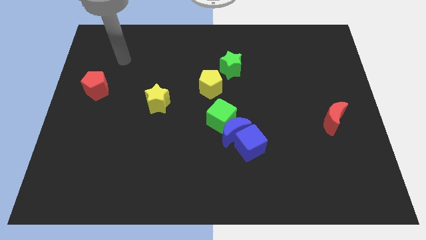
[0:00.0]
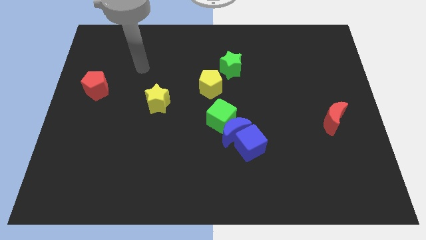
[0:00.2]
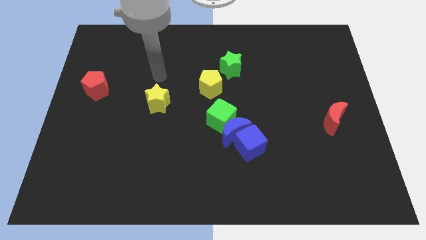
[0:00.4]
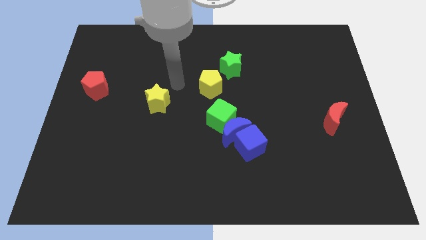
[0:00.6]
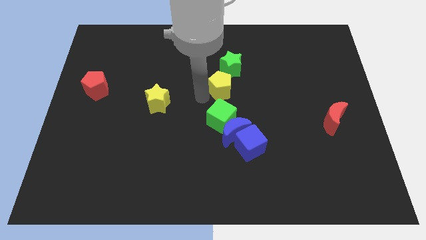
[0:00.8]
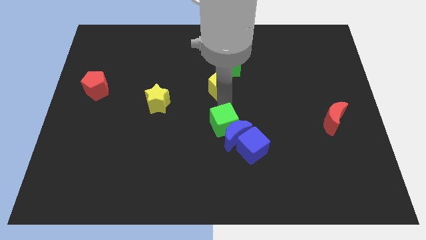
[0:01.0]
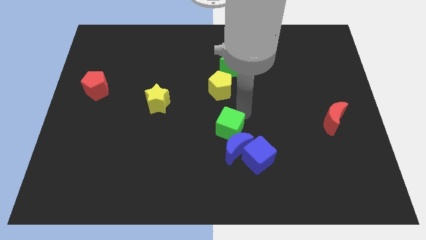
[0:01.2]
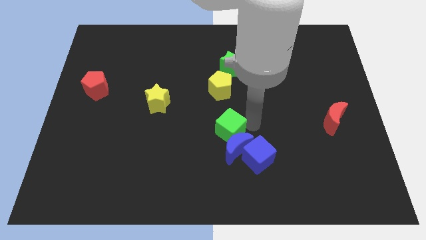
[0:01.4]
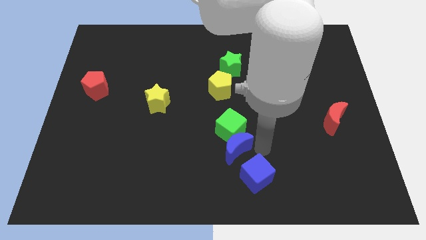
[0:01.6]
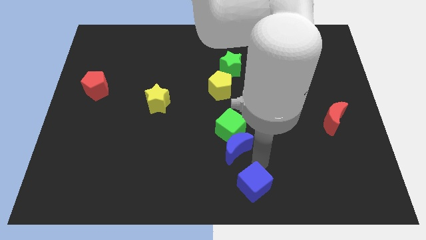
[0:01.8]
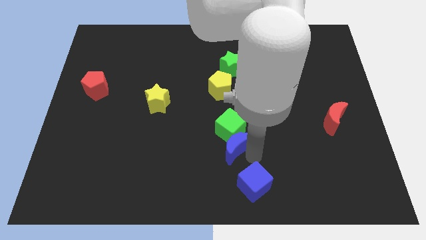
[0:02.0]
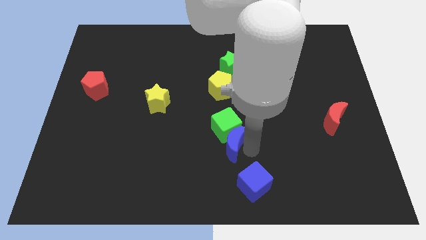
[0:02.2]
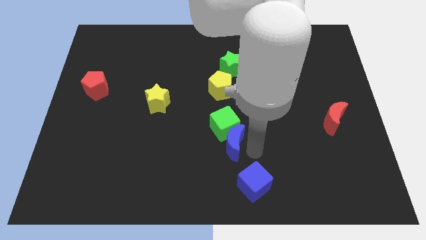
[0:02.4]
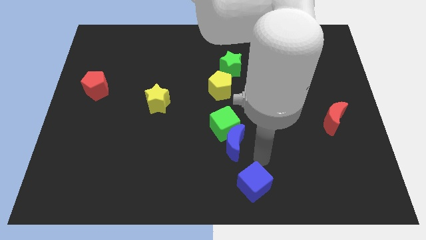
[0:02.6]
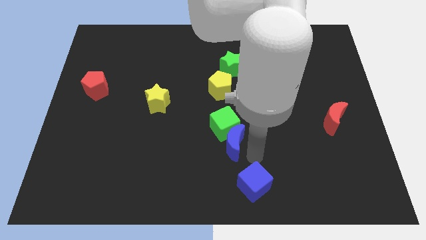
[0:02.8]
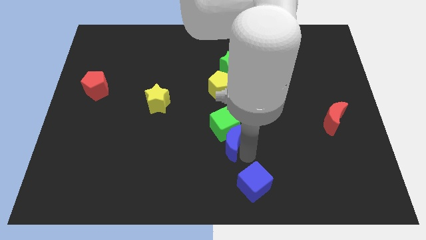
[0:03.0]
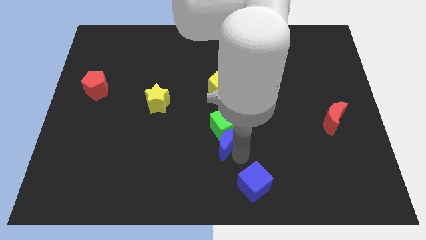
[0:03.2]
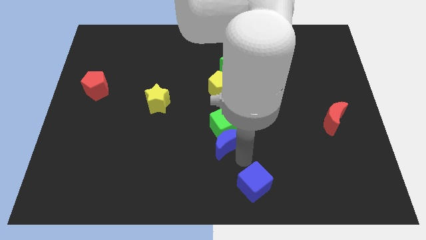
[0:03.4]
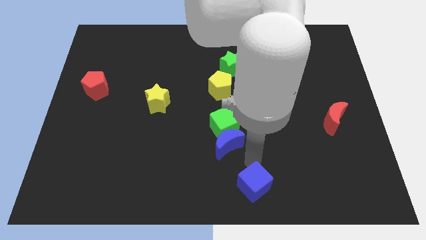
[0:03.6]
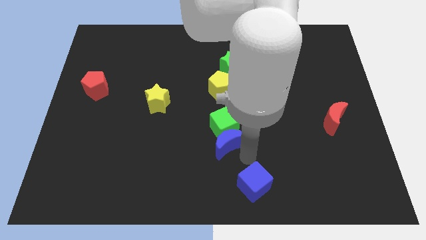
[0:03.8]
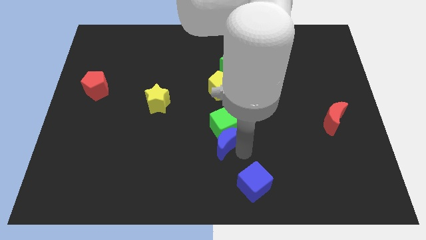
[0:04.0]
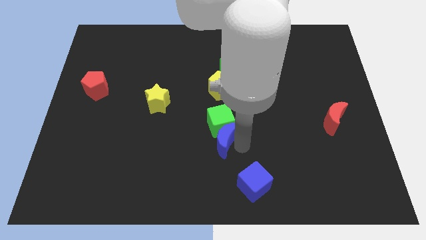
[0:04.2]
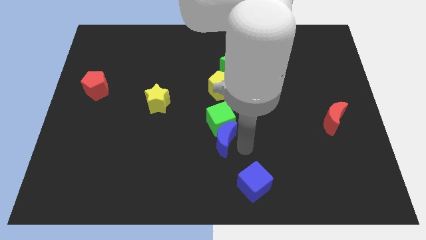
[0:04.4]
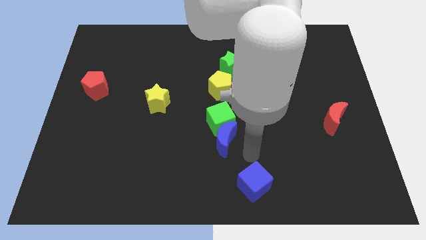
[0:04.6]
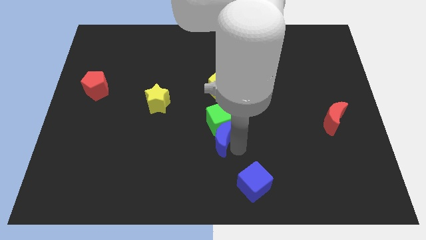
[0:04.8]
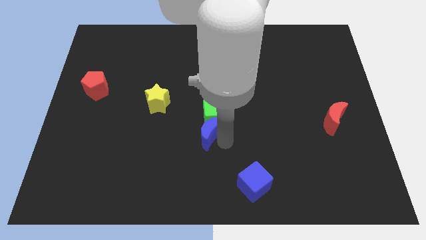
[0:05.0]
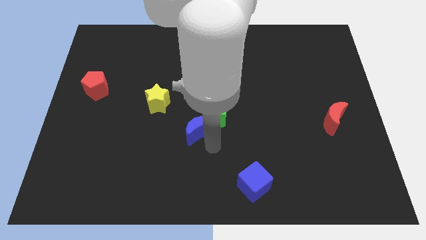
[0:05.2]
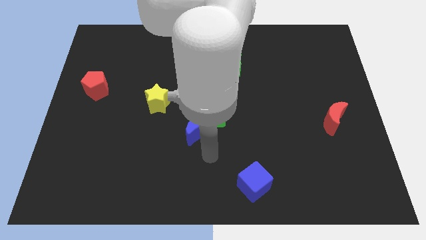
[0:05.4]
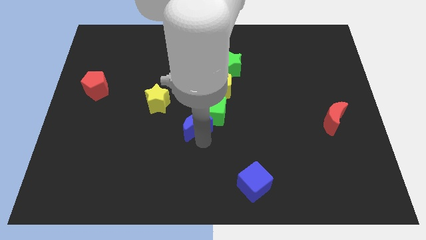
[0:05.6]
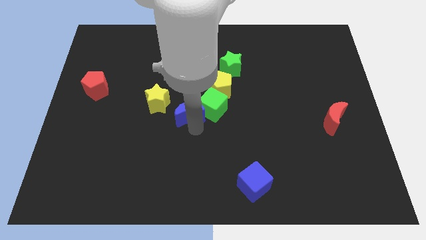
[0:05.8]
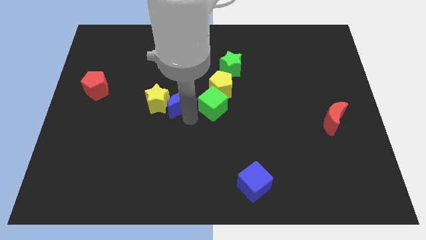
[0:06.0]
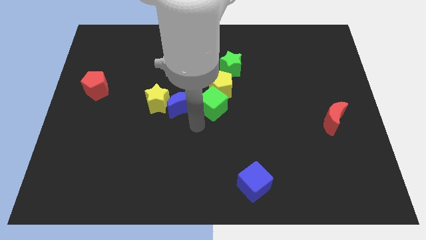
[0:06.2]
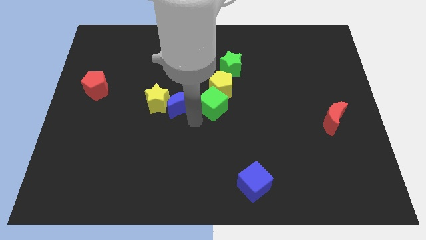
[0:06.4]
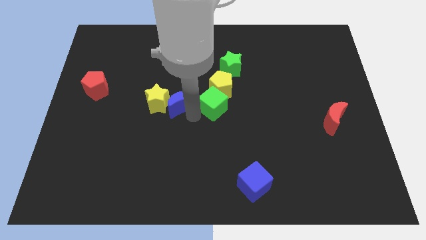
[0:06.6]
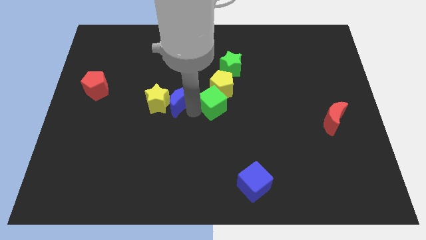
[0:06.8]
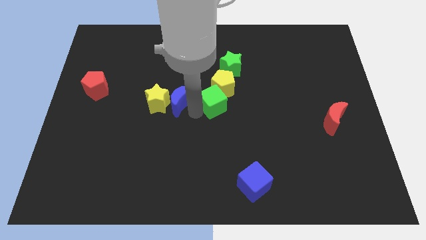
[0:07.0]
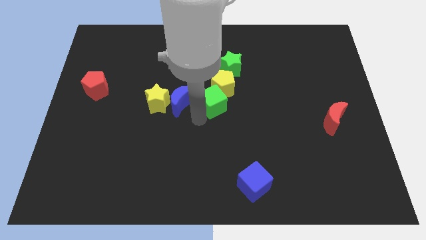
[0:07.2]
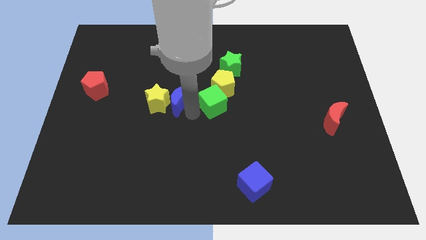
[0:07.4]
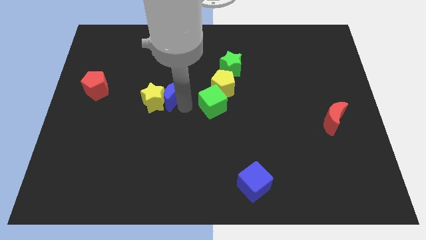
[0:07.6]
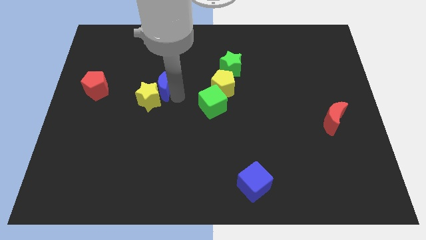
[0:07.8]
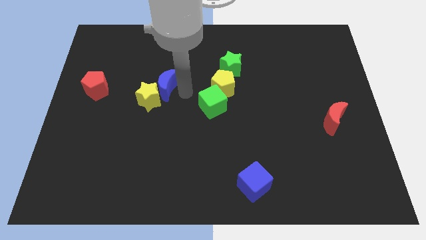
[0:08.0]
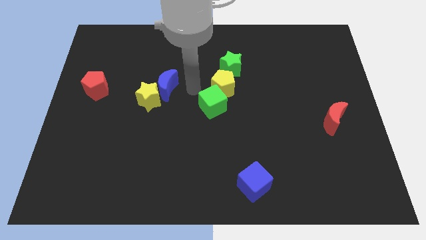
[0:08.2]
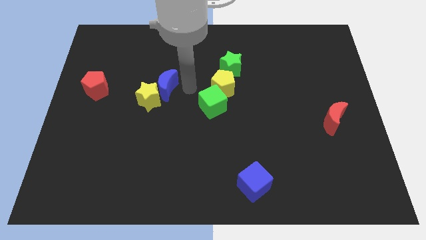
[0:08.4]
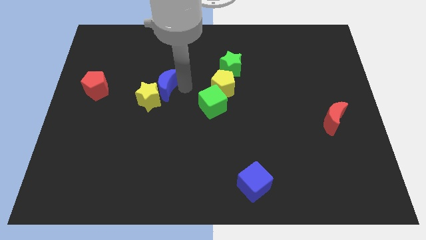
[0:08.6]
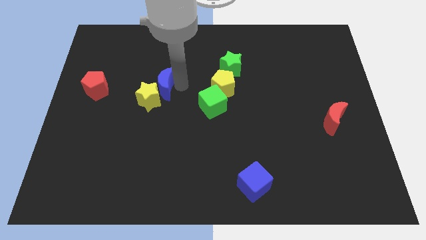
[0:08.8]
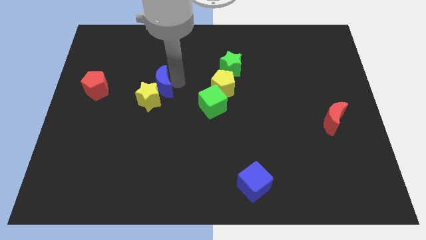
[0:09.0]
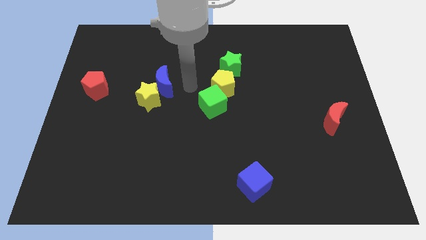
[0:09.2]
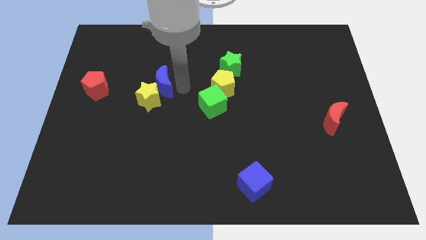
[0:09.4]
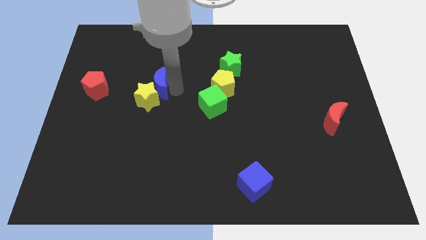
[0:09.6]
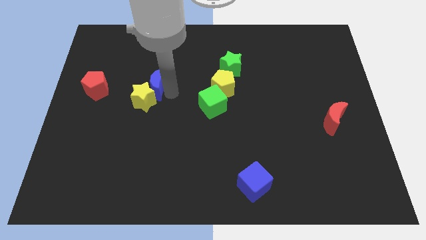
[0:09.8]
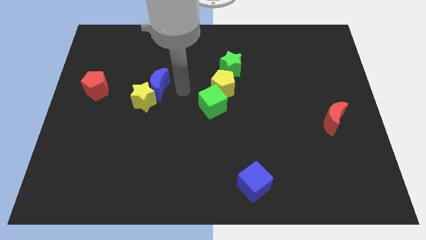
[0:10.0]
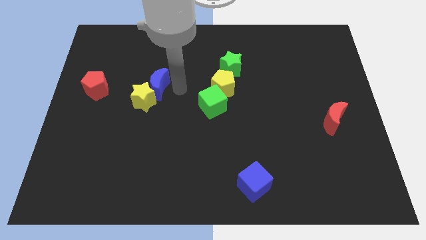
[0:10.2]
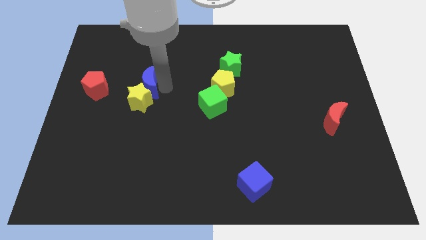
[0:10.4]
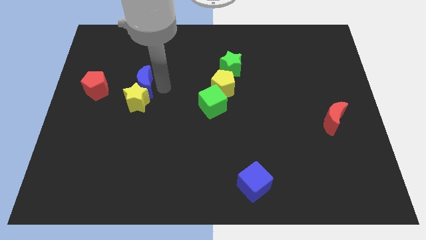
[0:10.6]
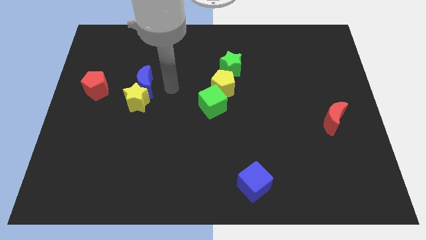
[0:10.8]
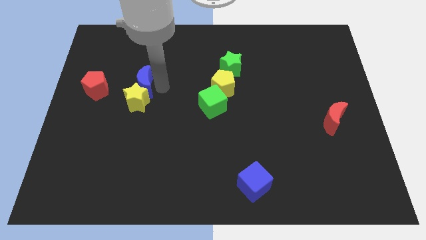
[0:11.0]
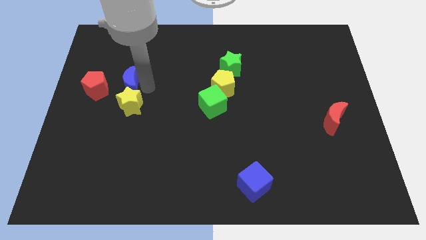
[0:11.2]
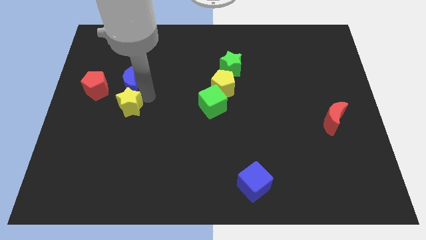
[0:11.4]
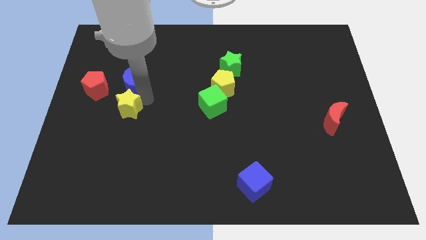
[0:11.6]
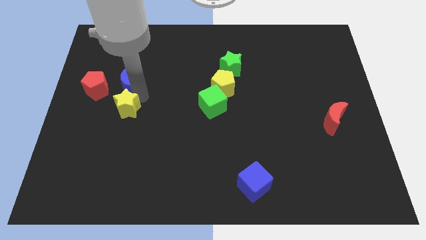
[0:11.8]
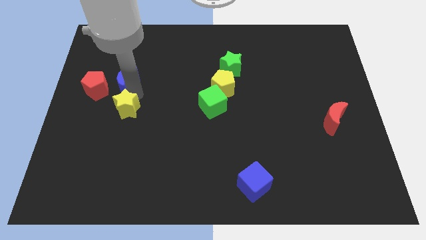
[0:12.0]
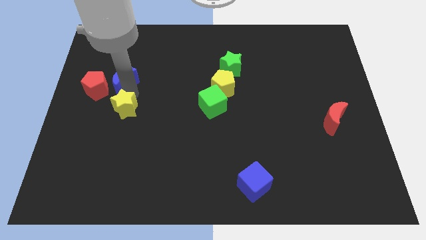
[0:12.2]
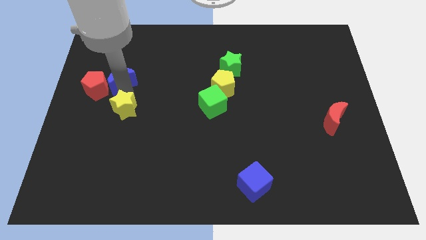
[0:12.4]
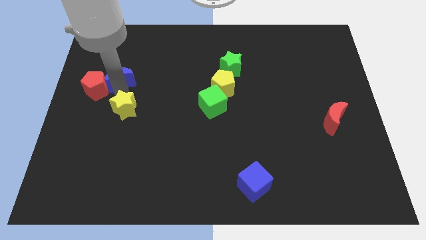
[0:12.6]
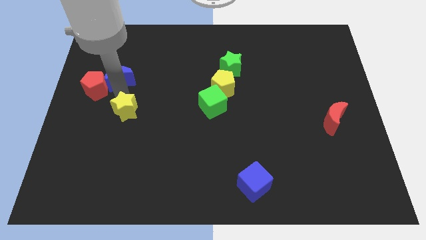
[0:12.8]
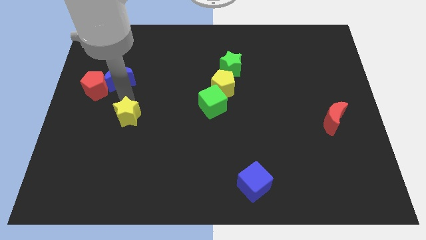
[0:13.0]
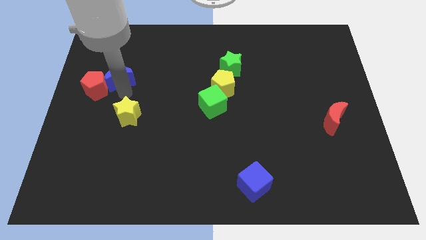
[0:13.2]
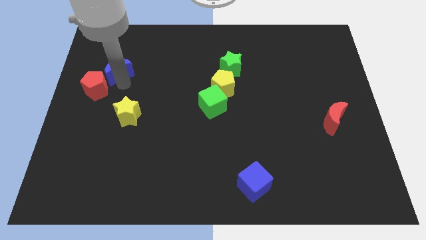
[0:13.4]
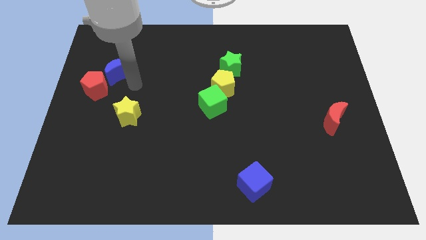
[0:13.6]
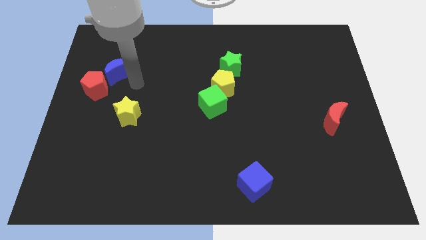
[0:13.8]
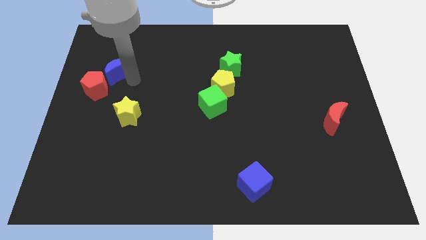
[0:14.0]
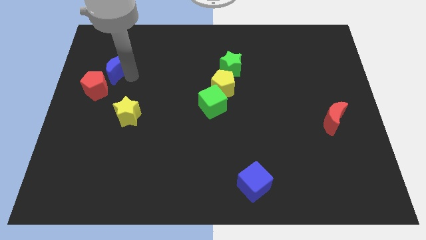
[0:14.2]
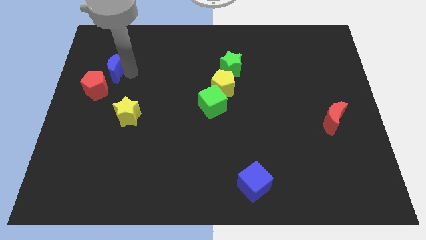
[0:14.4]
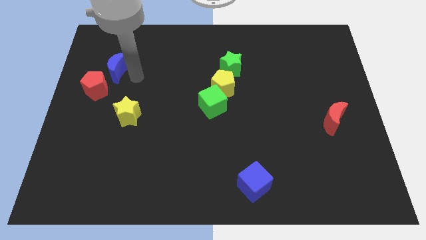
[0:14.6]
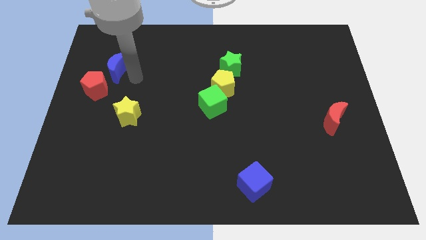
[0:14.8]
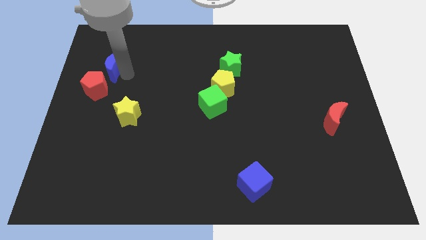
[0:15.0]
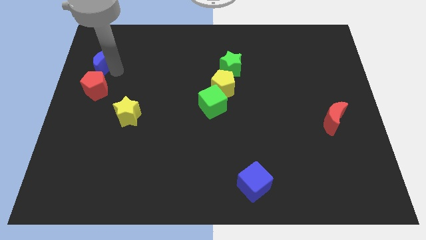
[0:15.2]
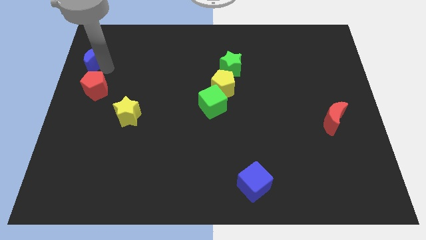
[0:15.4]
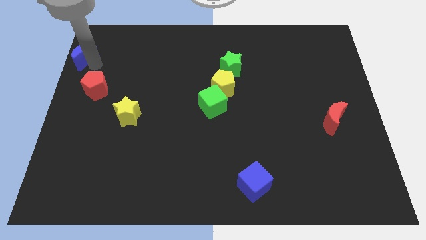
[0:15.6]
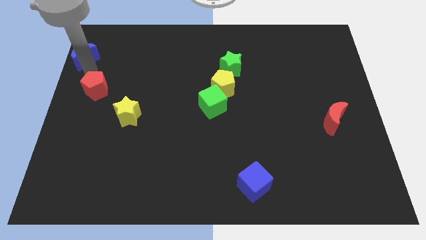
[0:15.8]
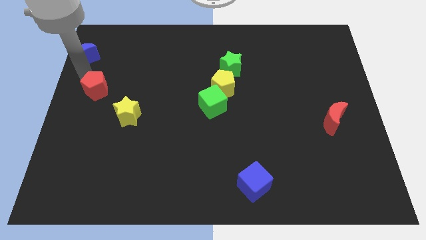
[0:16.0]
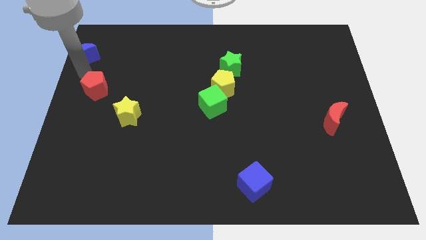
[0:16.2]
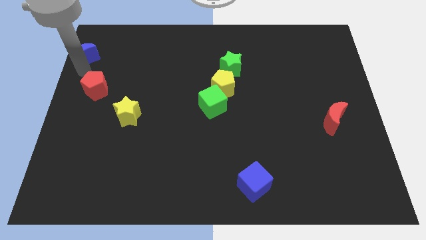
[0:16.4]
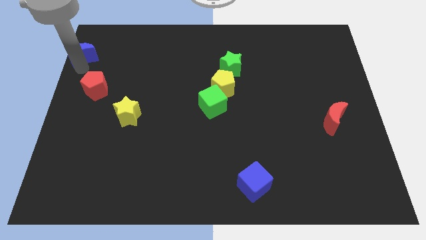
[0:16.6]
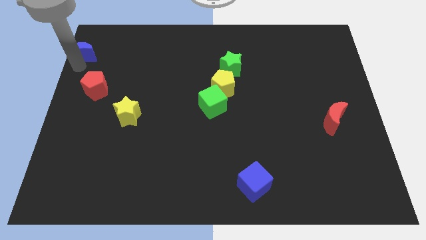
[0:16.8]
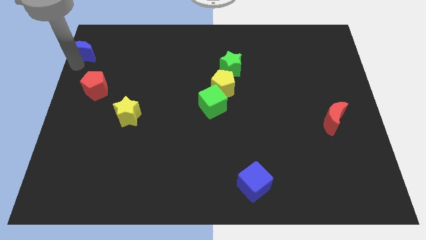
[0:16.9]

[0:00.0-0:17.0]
move the blue moon to the top left of the board

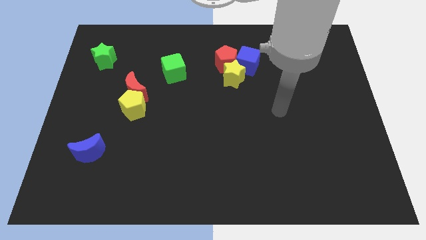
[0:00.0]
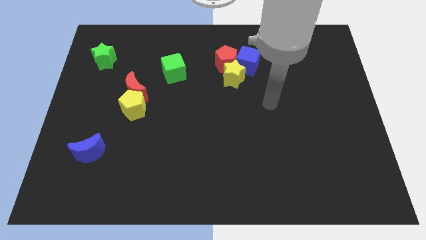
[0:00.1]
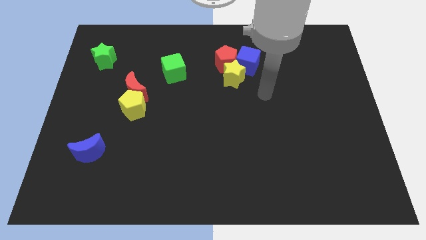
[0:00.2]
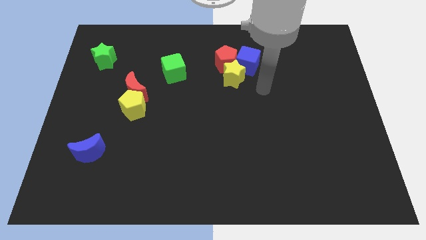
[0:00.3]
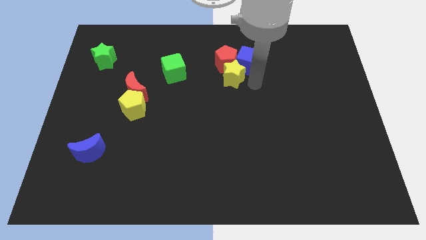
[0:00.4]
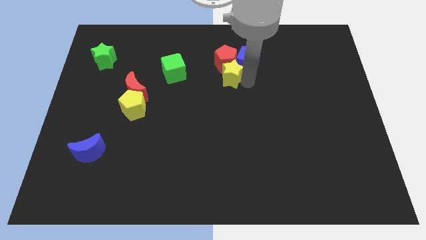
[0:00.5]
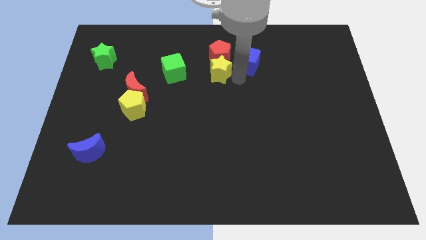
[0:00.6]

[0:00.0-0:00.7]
push the red pentagon to the top
